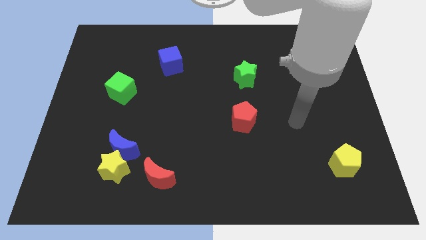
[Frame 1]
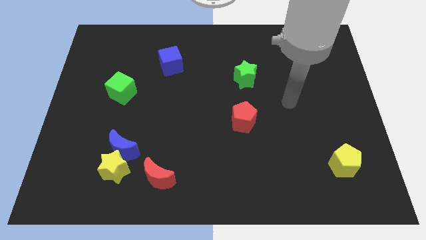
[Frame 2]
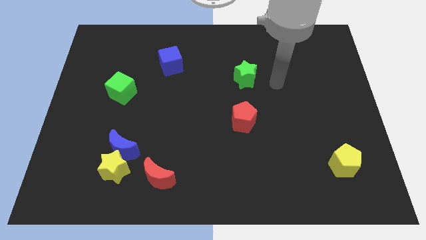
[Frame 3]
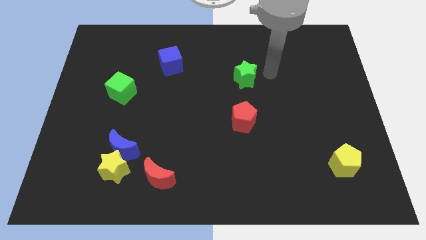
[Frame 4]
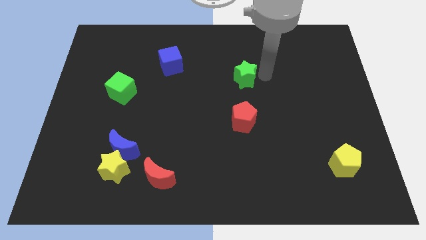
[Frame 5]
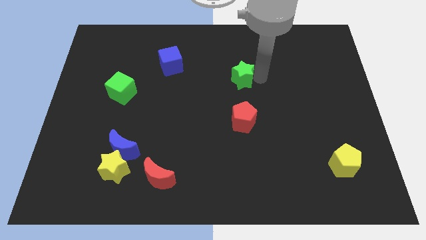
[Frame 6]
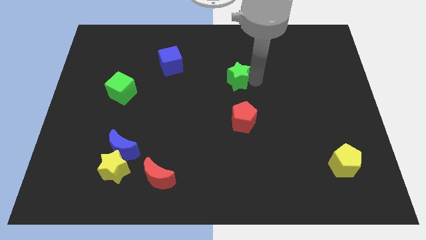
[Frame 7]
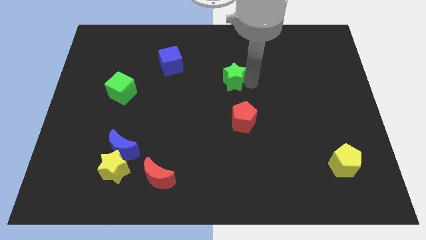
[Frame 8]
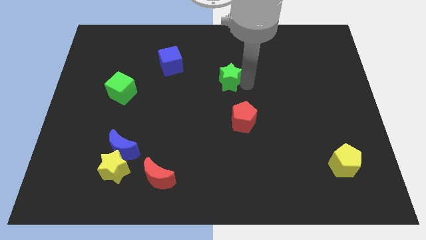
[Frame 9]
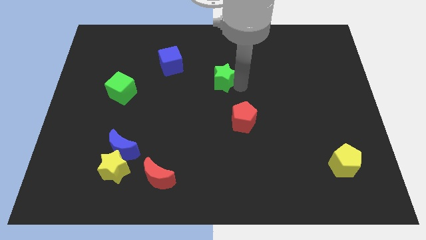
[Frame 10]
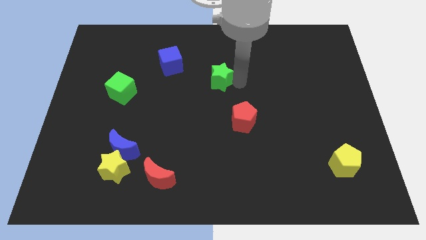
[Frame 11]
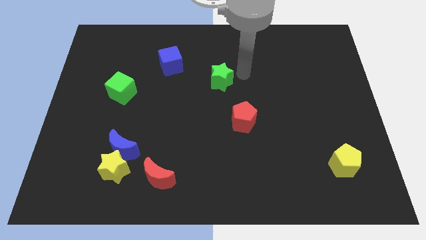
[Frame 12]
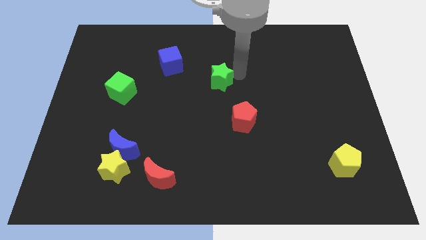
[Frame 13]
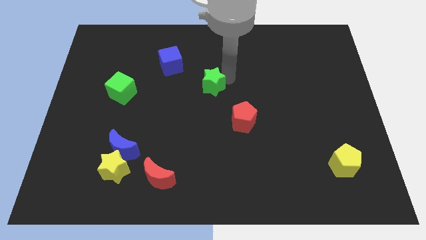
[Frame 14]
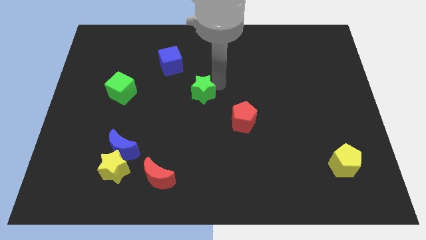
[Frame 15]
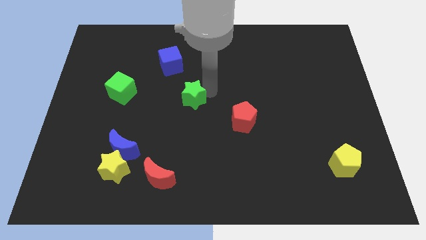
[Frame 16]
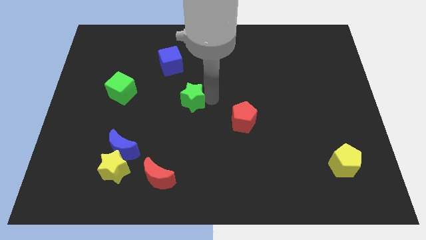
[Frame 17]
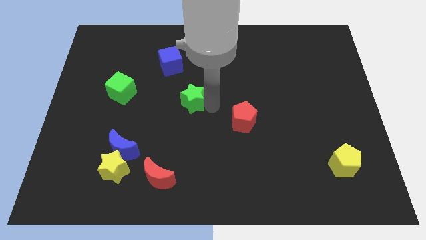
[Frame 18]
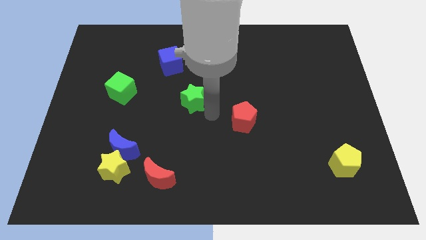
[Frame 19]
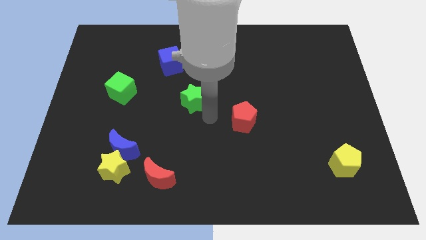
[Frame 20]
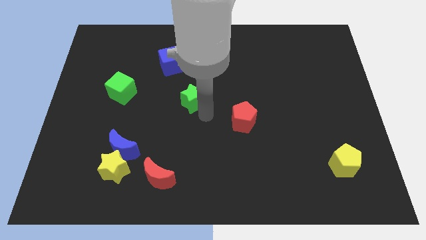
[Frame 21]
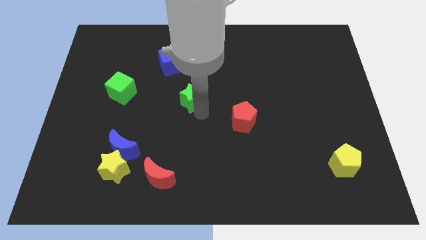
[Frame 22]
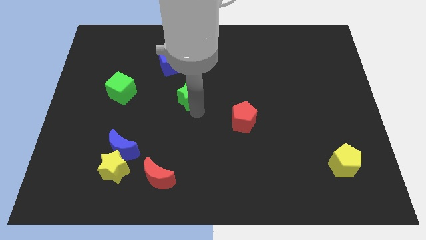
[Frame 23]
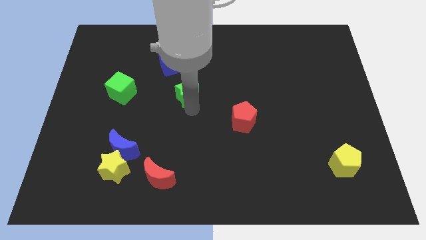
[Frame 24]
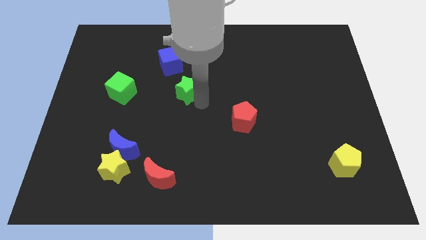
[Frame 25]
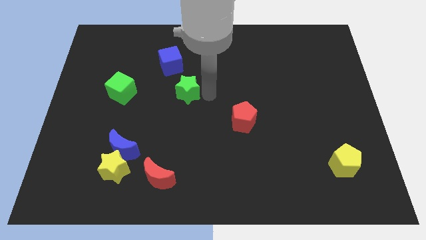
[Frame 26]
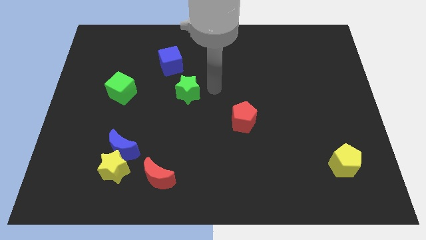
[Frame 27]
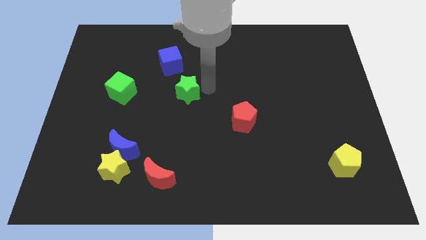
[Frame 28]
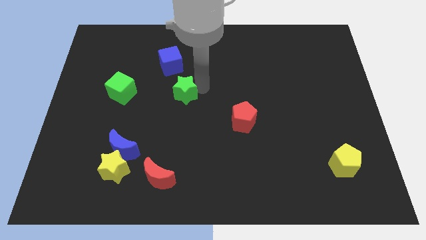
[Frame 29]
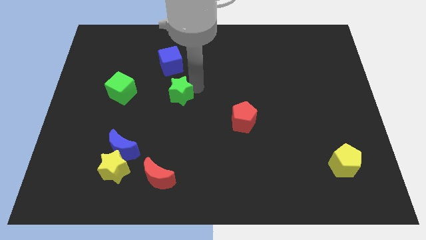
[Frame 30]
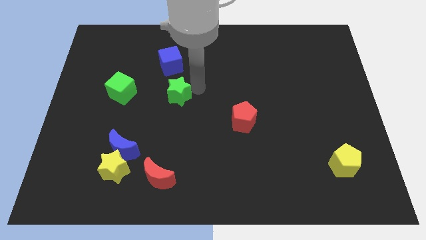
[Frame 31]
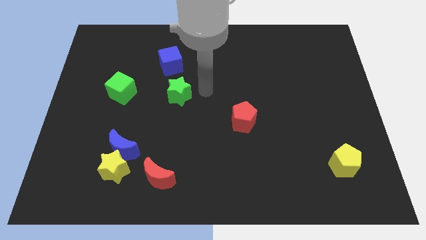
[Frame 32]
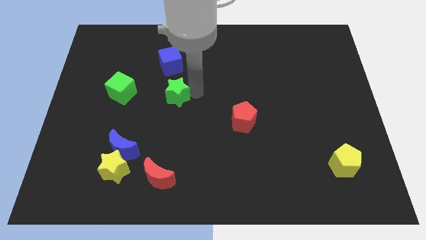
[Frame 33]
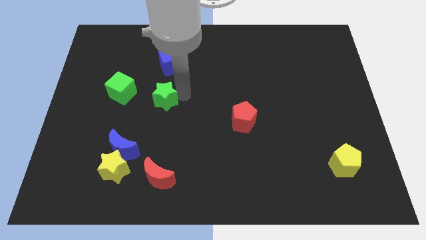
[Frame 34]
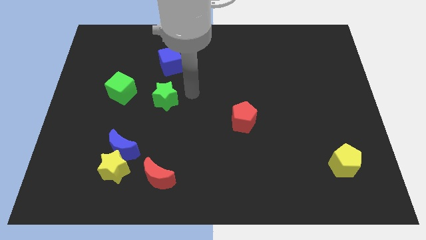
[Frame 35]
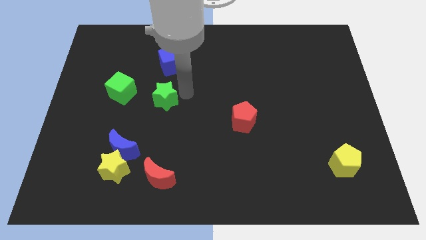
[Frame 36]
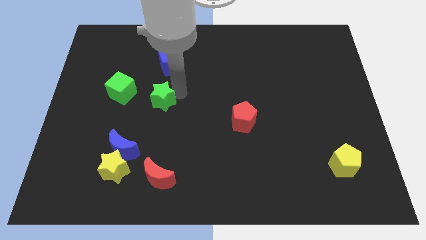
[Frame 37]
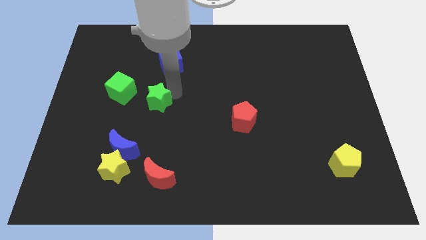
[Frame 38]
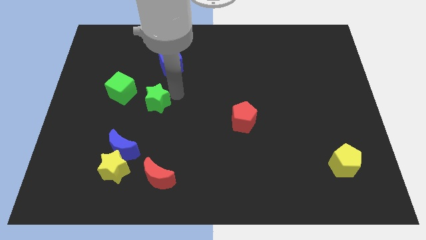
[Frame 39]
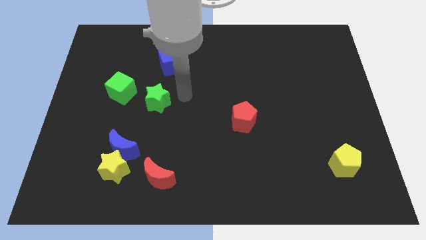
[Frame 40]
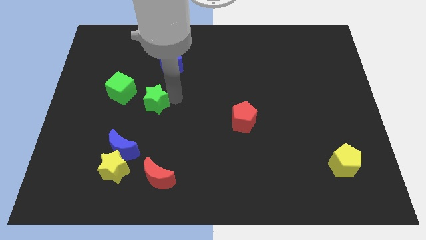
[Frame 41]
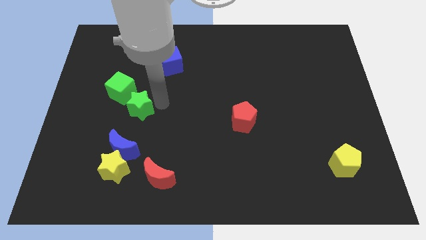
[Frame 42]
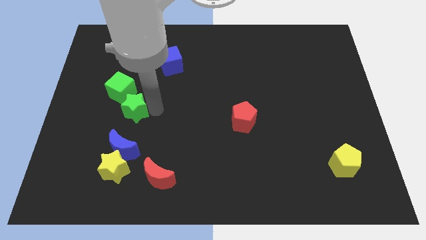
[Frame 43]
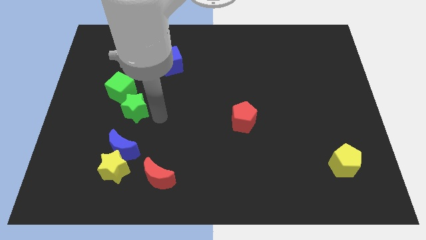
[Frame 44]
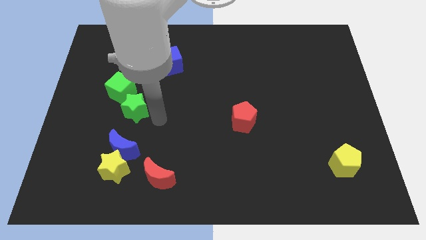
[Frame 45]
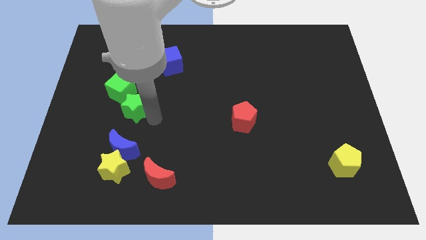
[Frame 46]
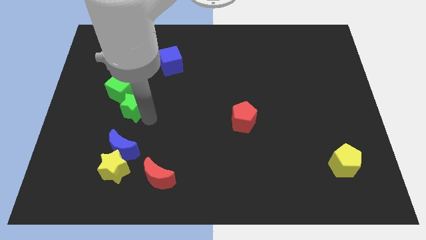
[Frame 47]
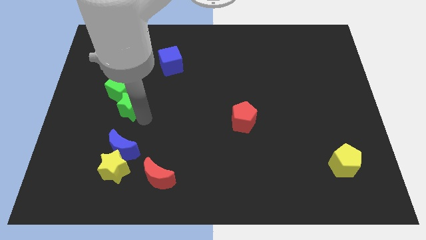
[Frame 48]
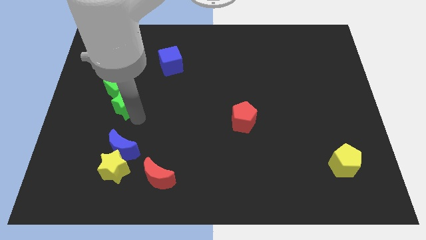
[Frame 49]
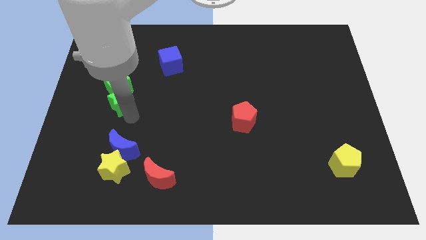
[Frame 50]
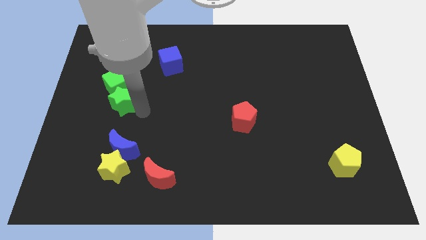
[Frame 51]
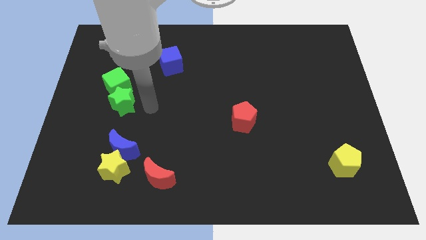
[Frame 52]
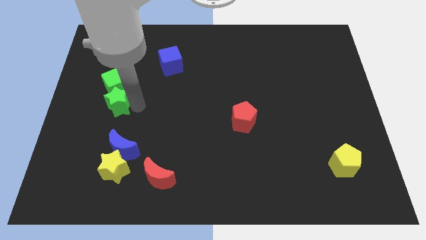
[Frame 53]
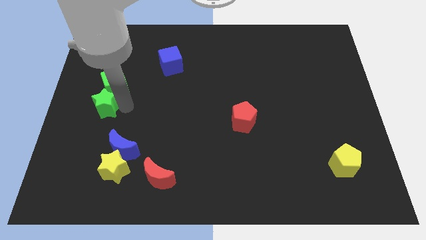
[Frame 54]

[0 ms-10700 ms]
slide the green star to the left side of the board
